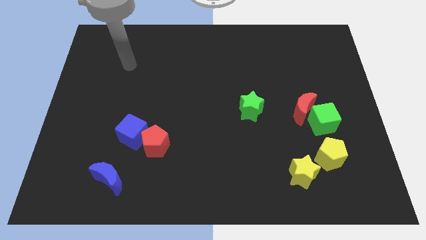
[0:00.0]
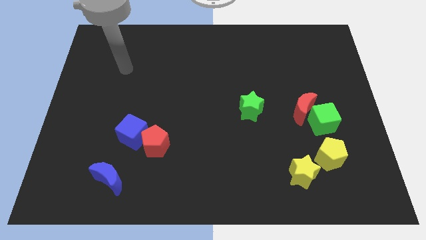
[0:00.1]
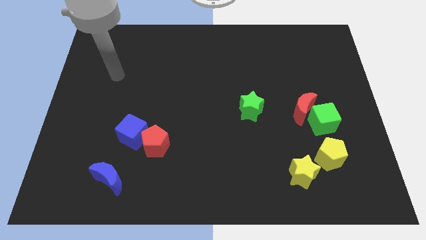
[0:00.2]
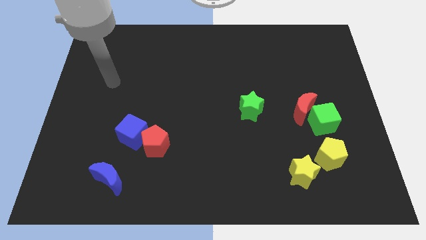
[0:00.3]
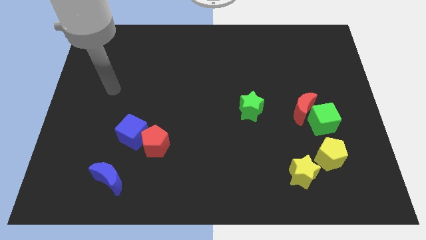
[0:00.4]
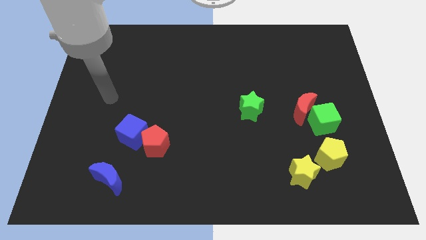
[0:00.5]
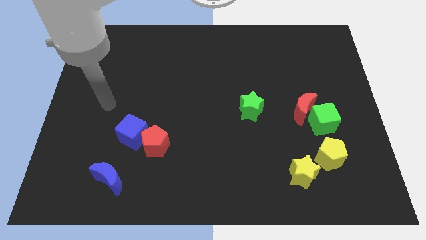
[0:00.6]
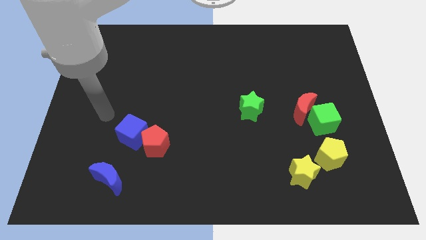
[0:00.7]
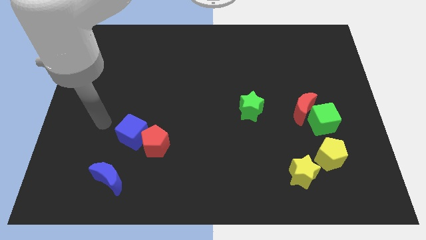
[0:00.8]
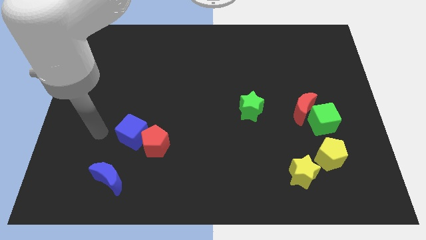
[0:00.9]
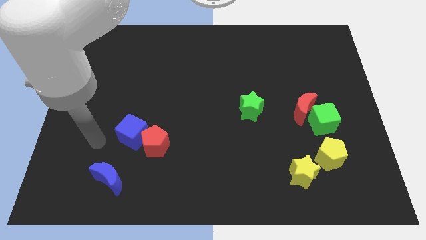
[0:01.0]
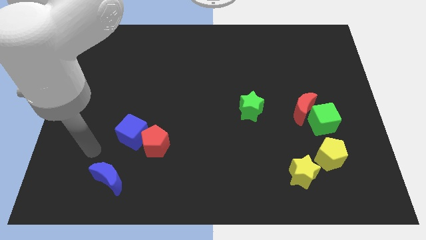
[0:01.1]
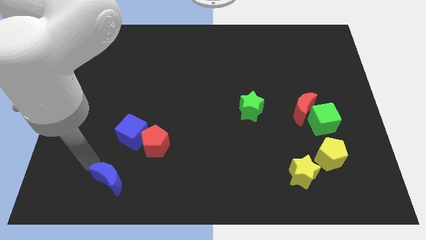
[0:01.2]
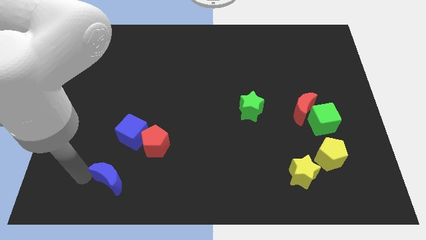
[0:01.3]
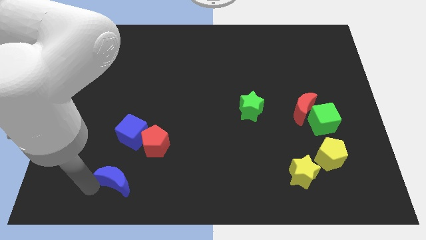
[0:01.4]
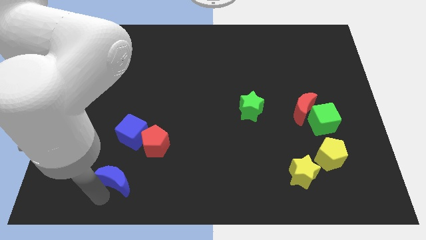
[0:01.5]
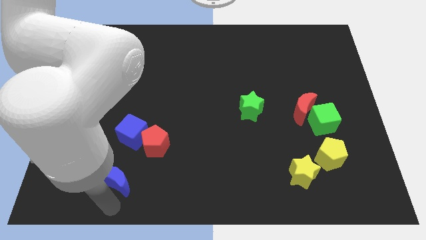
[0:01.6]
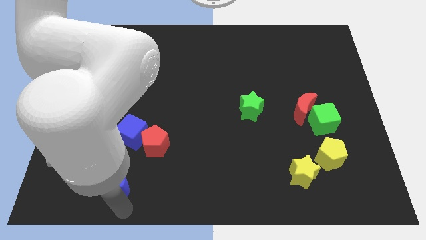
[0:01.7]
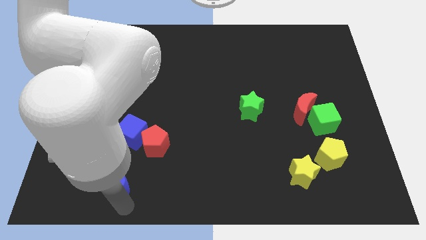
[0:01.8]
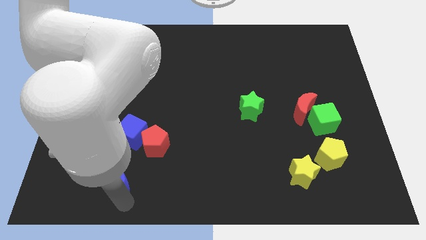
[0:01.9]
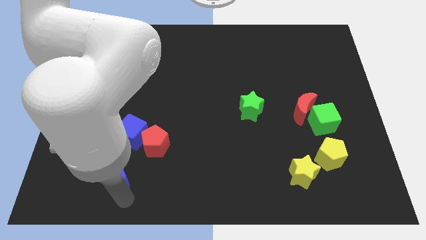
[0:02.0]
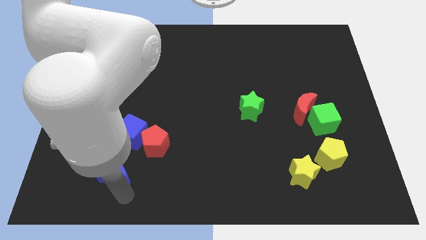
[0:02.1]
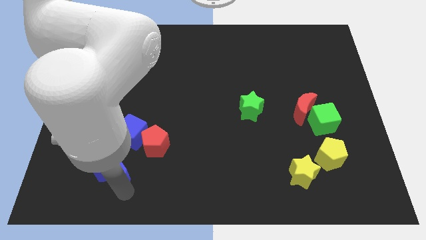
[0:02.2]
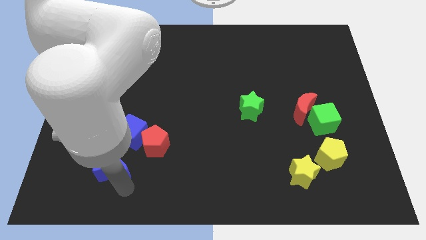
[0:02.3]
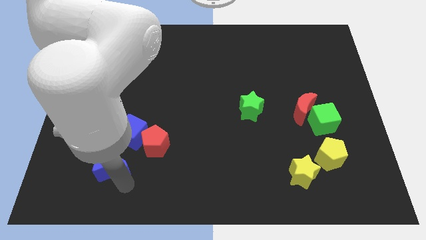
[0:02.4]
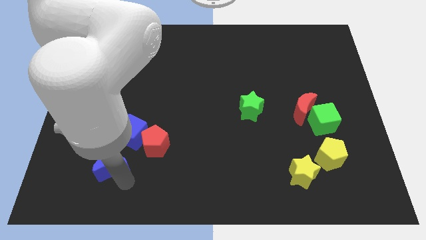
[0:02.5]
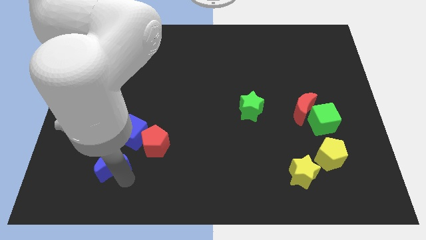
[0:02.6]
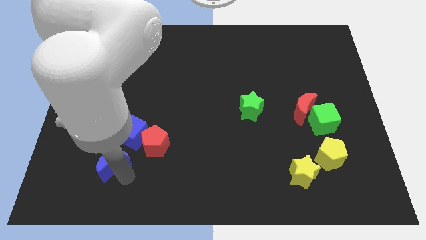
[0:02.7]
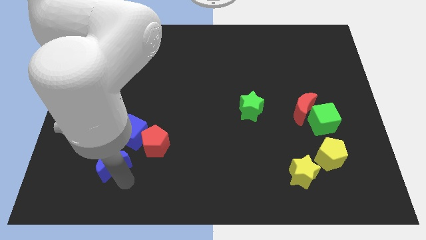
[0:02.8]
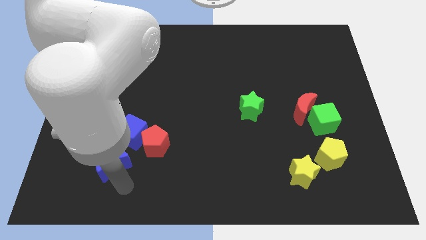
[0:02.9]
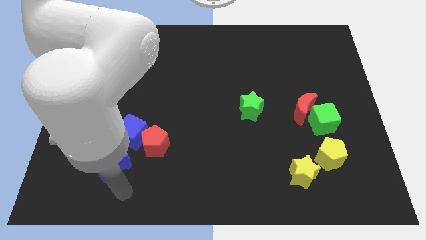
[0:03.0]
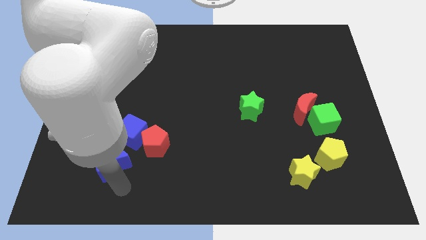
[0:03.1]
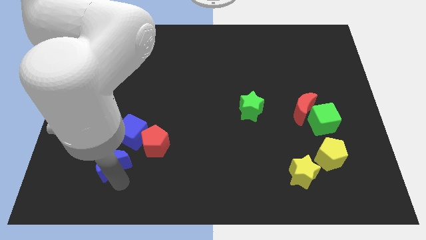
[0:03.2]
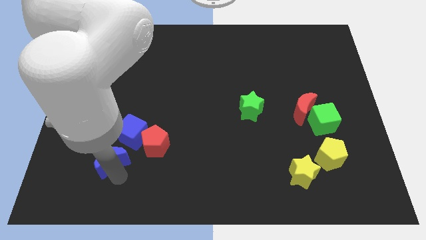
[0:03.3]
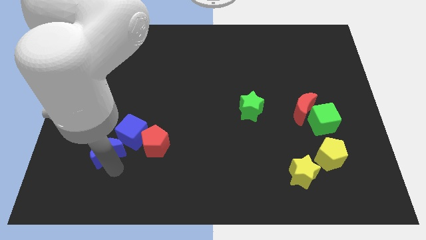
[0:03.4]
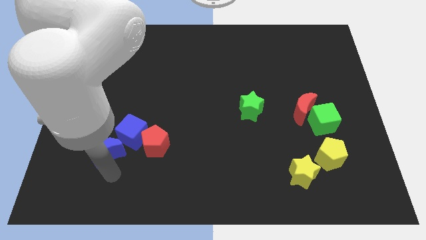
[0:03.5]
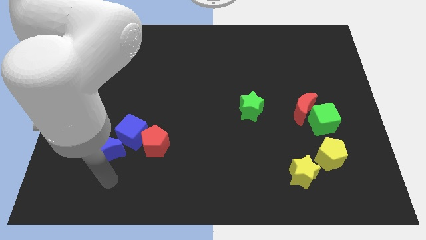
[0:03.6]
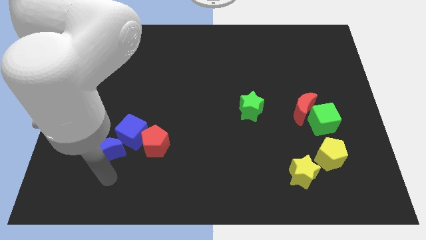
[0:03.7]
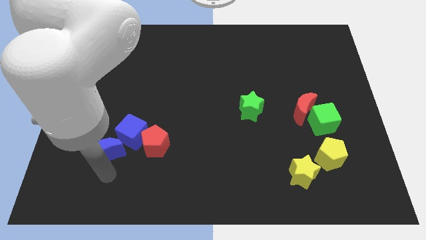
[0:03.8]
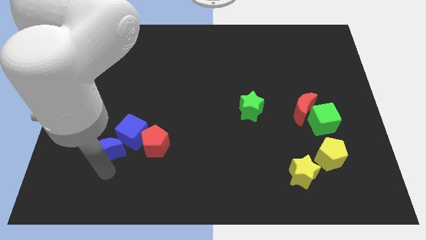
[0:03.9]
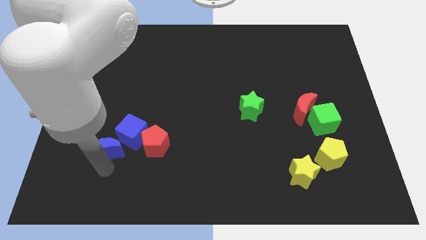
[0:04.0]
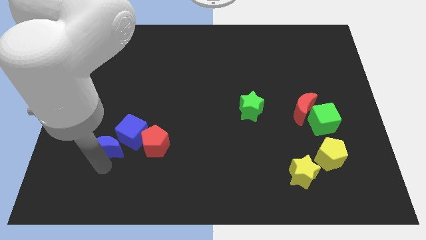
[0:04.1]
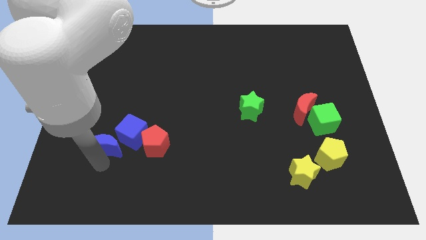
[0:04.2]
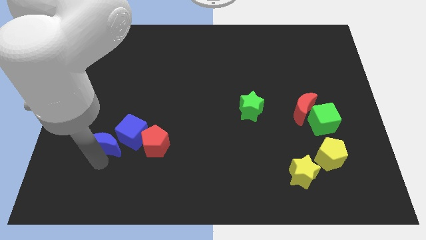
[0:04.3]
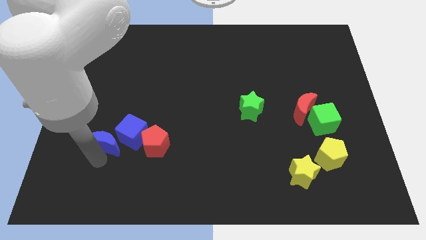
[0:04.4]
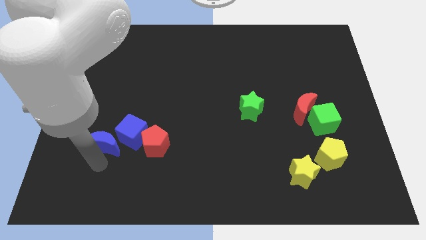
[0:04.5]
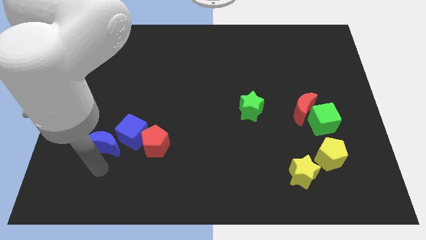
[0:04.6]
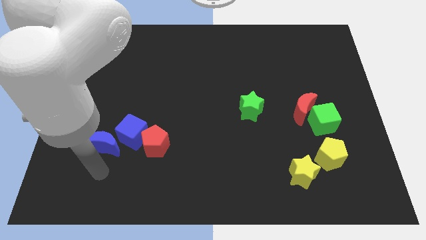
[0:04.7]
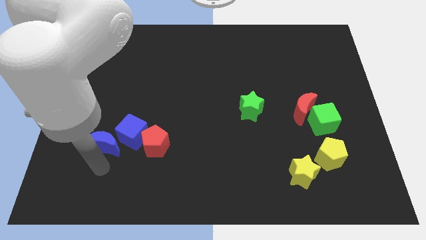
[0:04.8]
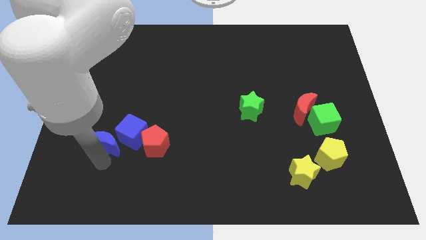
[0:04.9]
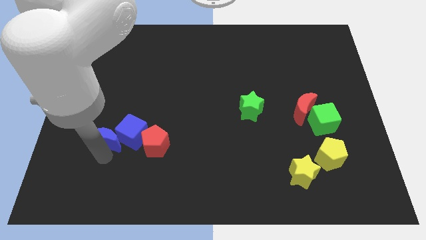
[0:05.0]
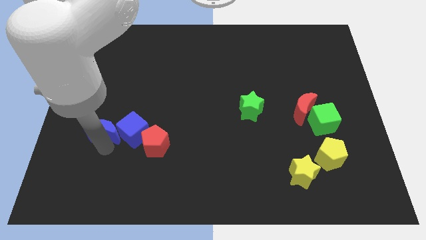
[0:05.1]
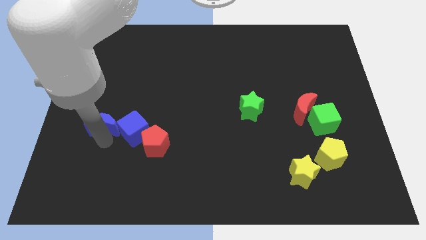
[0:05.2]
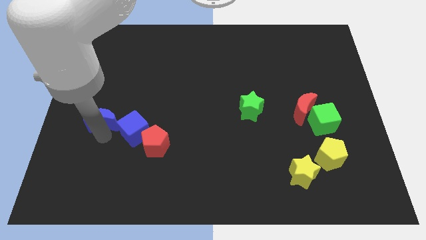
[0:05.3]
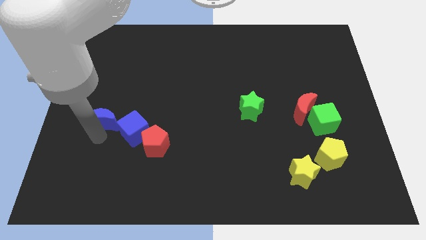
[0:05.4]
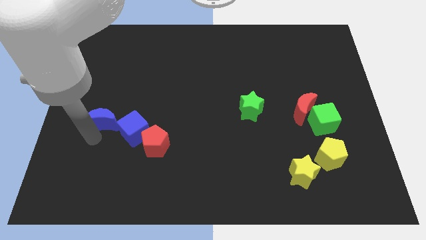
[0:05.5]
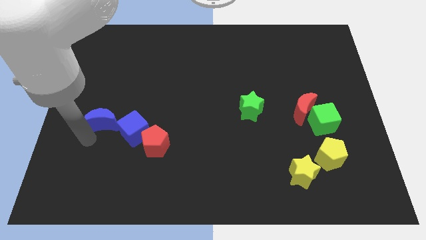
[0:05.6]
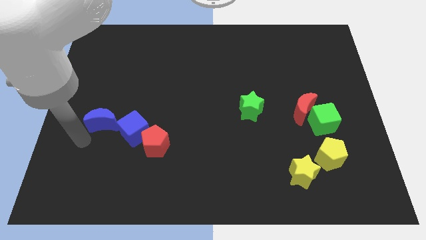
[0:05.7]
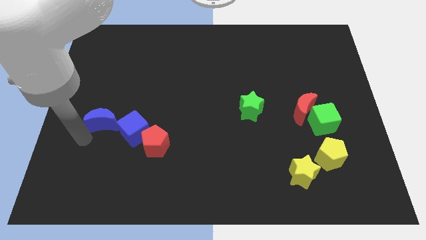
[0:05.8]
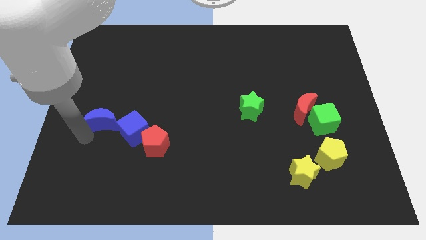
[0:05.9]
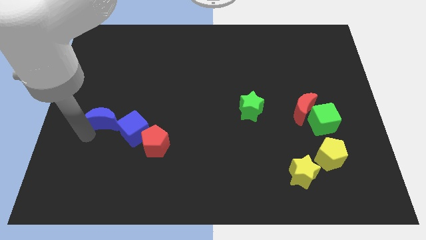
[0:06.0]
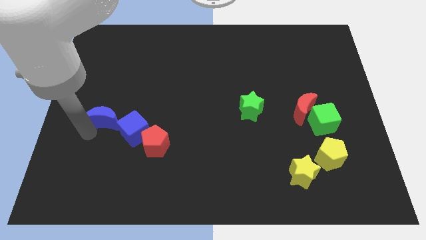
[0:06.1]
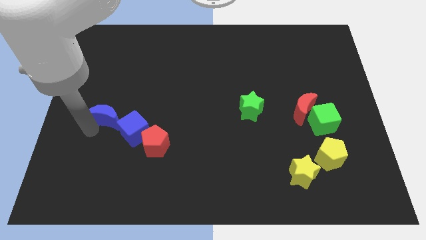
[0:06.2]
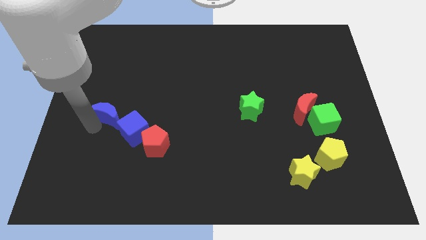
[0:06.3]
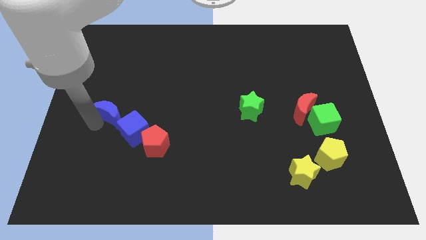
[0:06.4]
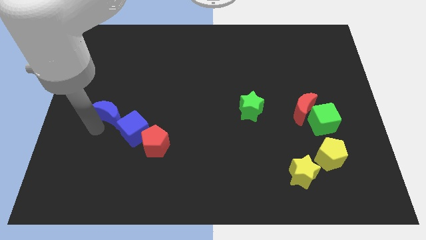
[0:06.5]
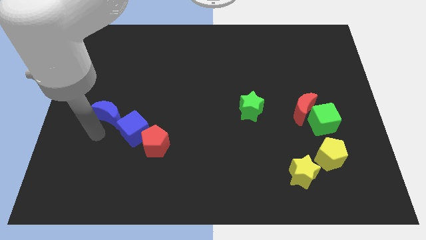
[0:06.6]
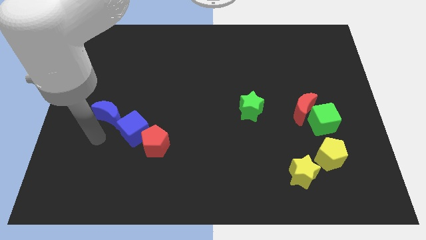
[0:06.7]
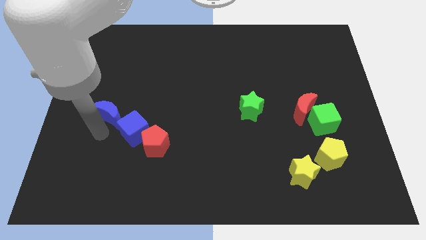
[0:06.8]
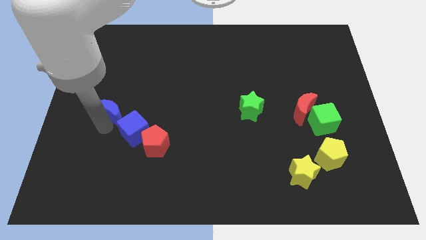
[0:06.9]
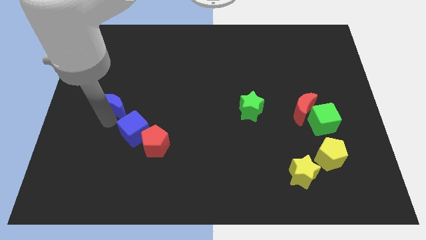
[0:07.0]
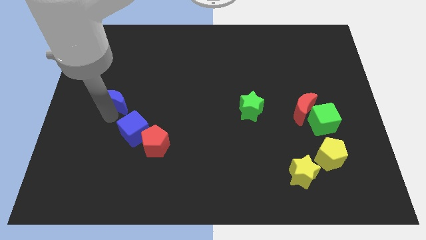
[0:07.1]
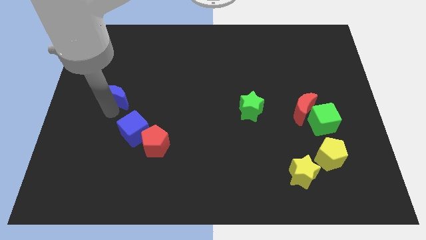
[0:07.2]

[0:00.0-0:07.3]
slide the blue moon upwards

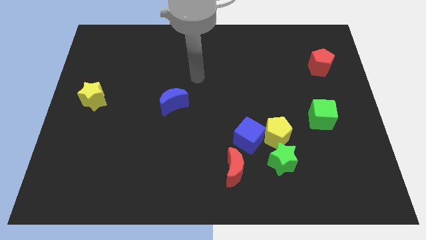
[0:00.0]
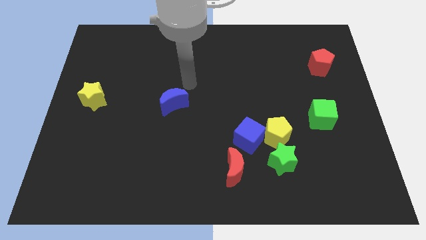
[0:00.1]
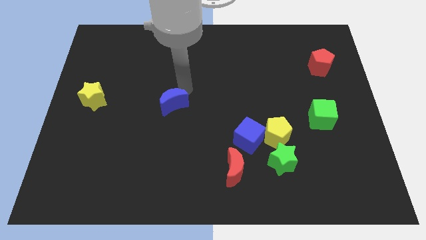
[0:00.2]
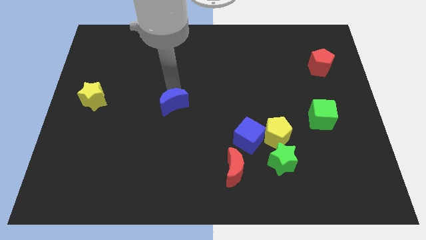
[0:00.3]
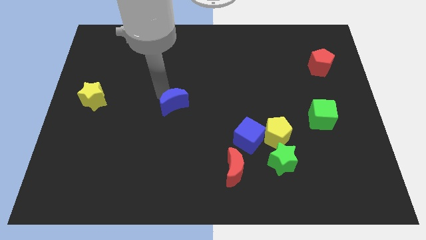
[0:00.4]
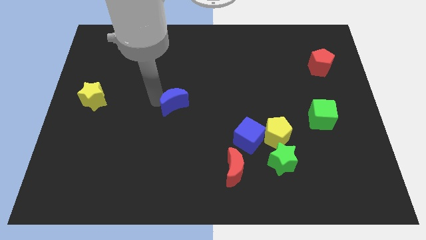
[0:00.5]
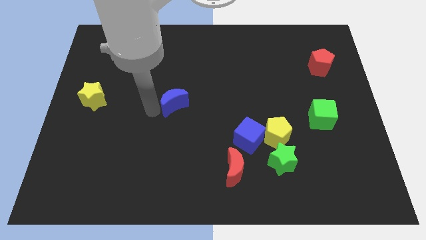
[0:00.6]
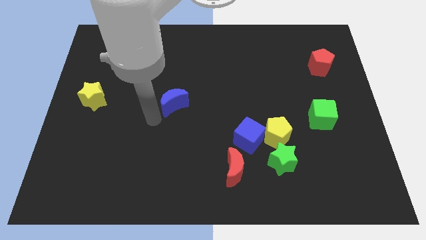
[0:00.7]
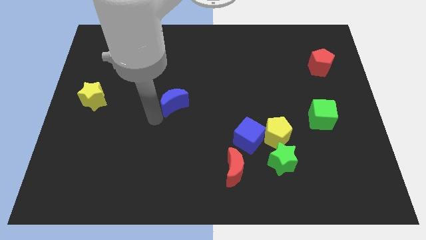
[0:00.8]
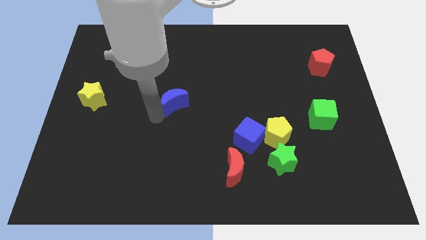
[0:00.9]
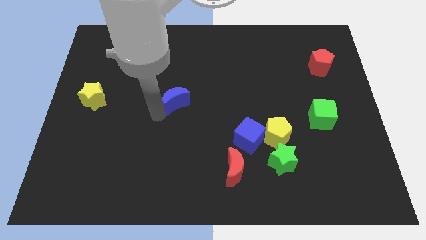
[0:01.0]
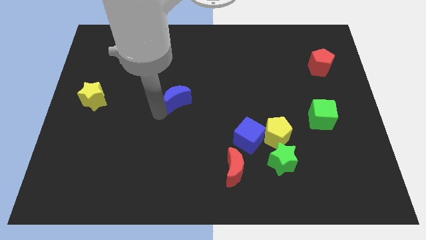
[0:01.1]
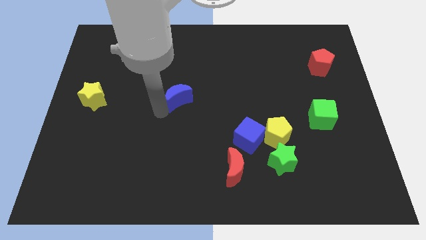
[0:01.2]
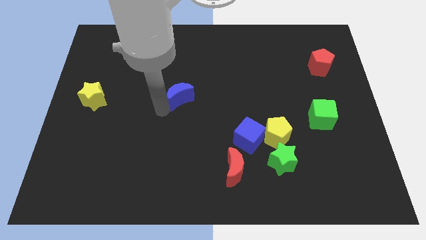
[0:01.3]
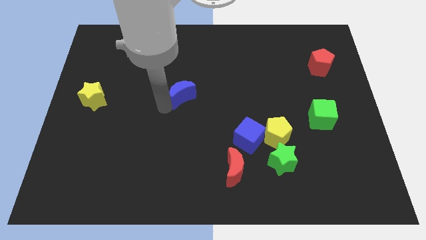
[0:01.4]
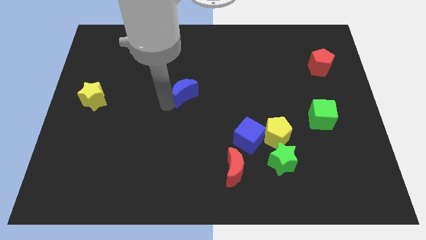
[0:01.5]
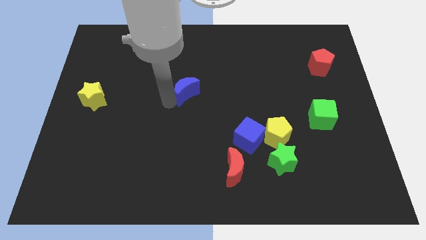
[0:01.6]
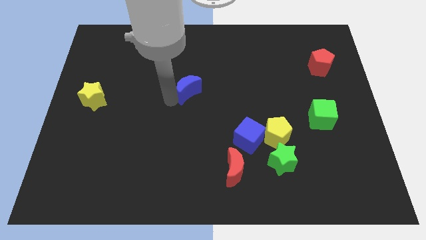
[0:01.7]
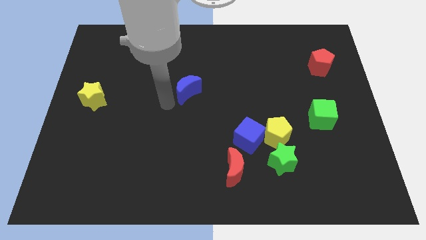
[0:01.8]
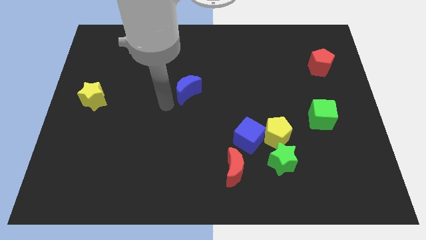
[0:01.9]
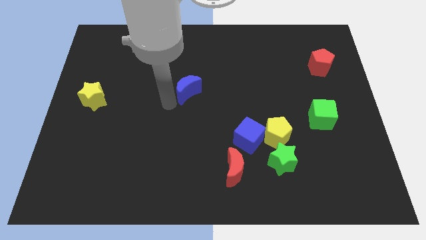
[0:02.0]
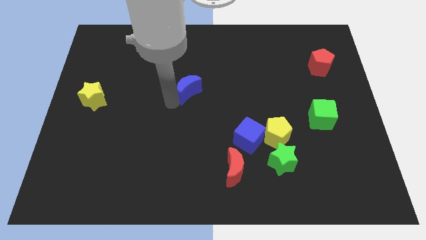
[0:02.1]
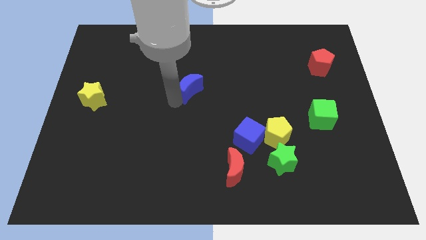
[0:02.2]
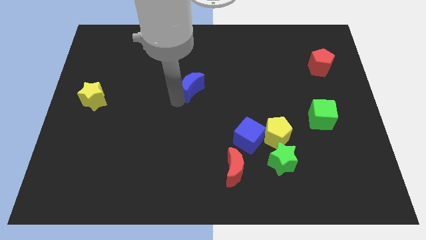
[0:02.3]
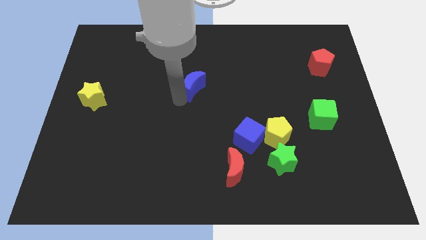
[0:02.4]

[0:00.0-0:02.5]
move the blue moon slightly upwards and then to the right
